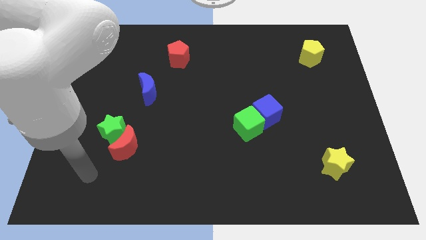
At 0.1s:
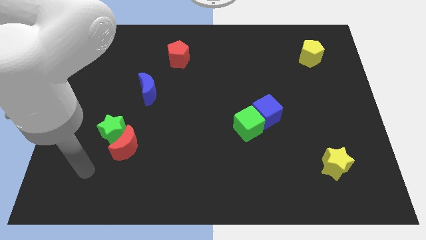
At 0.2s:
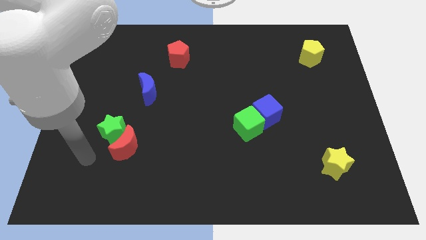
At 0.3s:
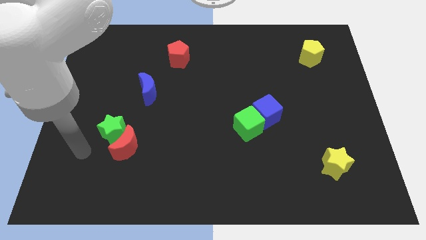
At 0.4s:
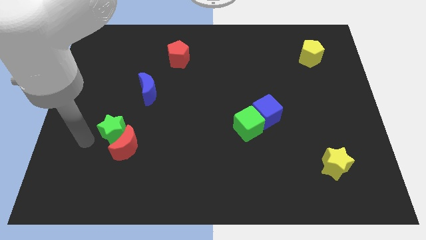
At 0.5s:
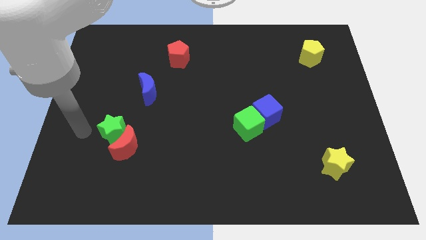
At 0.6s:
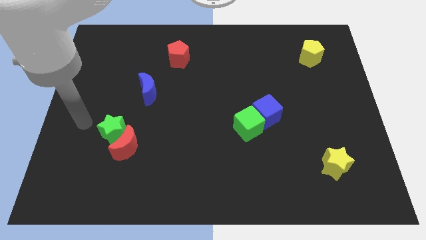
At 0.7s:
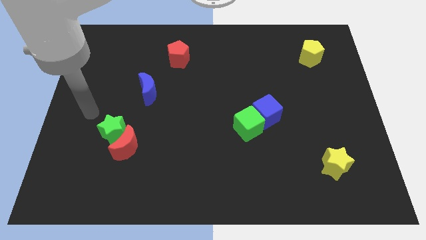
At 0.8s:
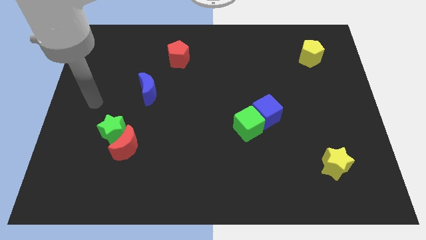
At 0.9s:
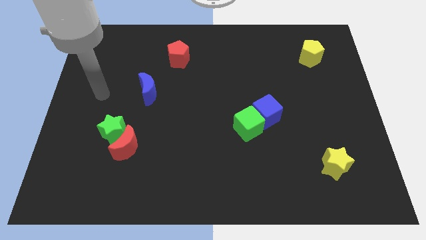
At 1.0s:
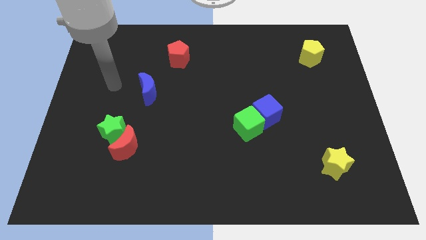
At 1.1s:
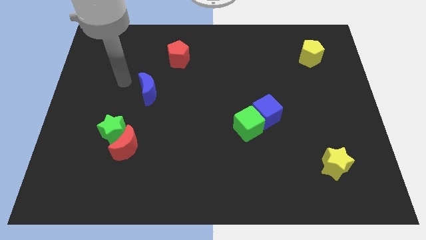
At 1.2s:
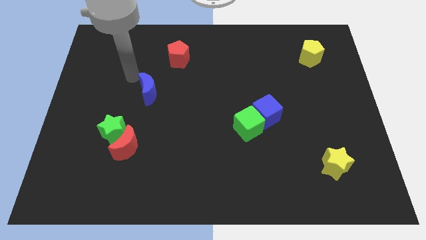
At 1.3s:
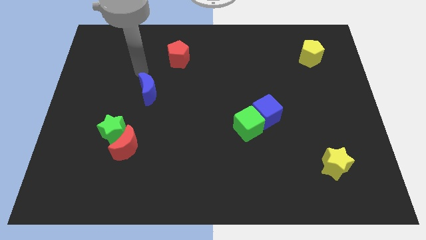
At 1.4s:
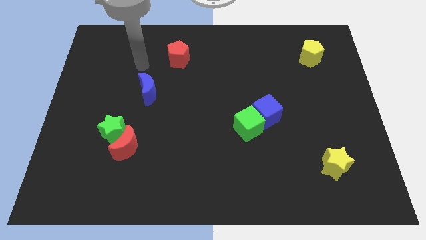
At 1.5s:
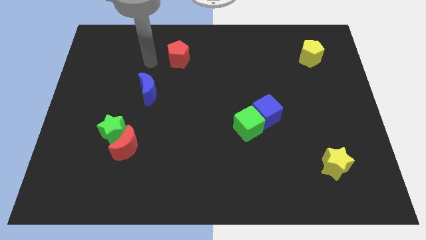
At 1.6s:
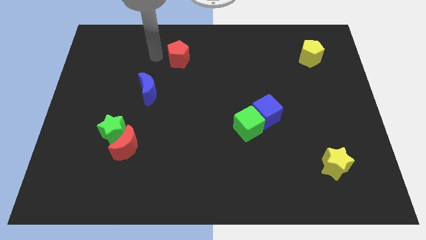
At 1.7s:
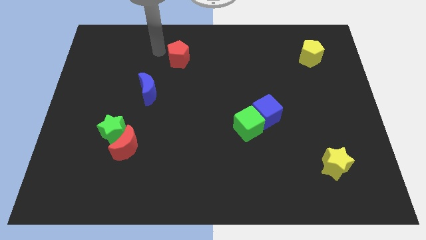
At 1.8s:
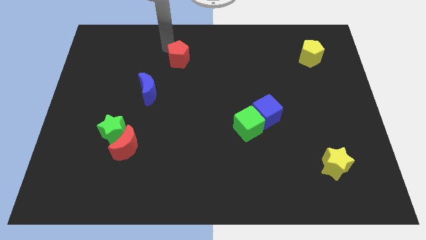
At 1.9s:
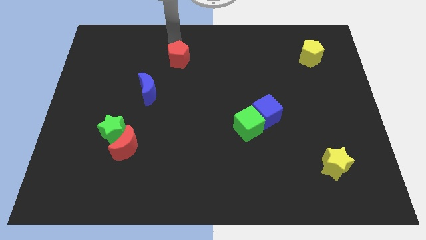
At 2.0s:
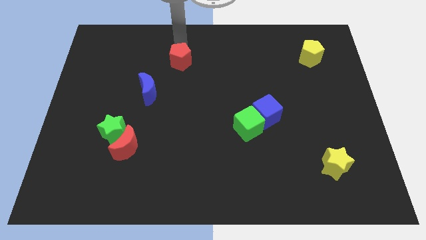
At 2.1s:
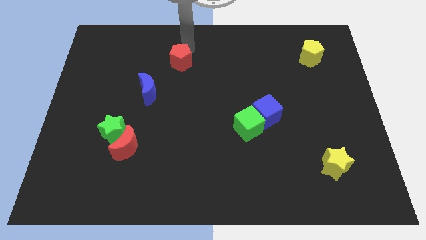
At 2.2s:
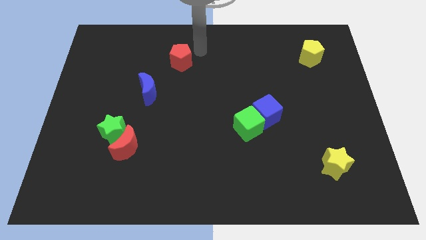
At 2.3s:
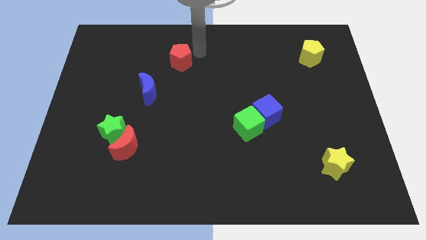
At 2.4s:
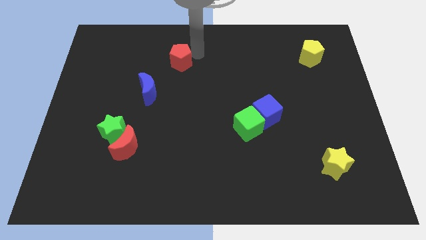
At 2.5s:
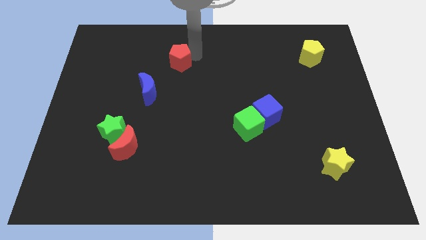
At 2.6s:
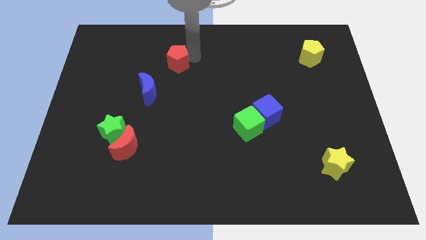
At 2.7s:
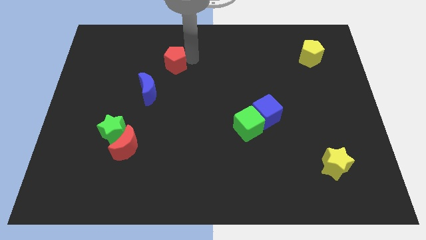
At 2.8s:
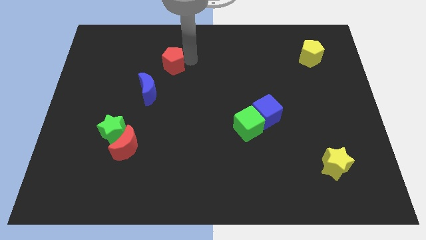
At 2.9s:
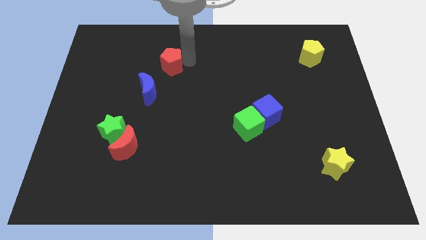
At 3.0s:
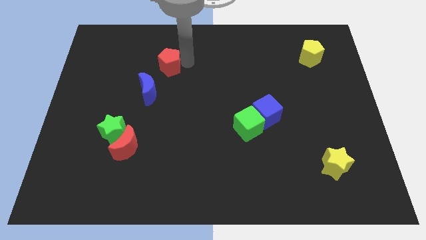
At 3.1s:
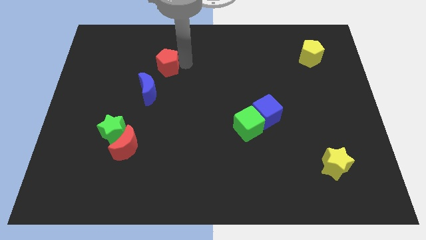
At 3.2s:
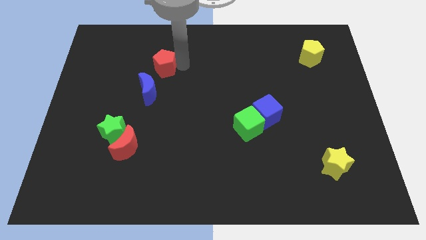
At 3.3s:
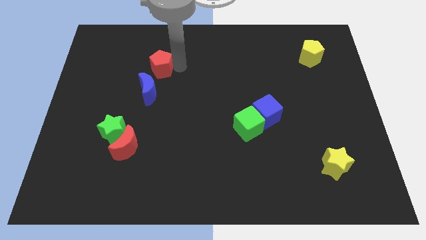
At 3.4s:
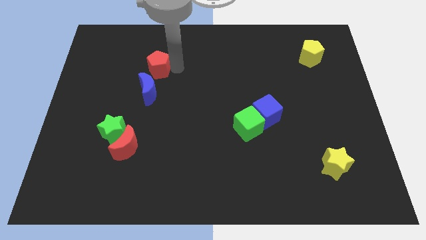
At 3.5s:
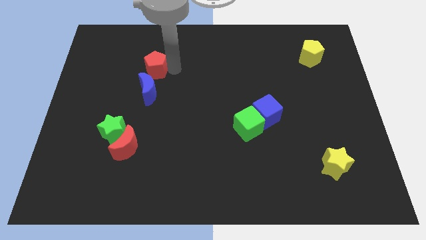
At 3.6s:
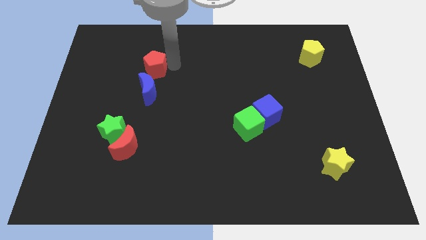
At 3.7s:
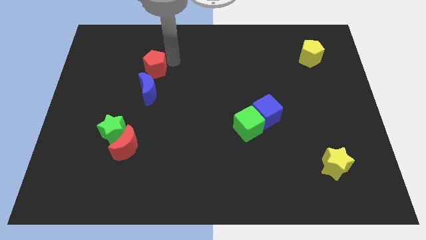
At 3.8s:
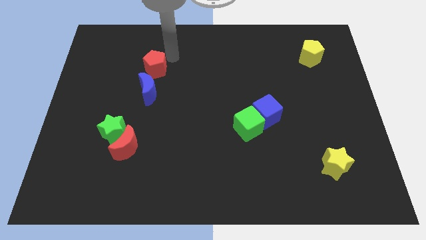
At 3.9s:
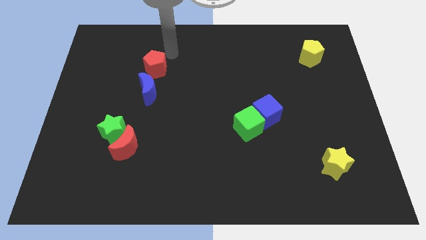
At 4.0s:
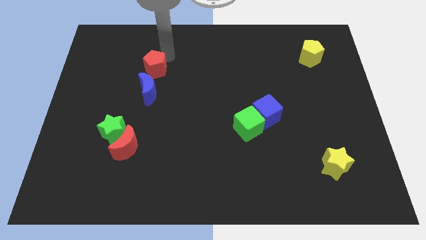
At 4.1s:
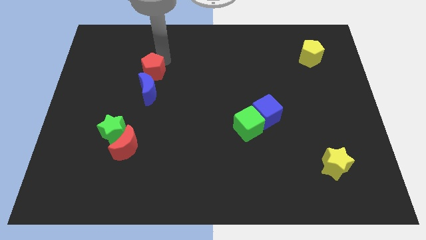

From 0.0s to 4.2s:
slightly push the red pentagon diagonally downwards and left

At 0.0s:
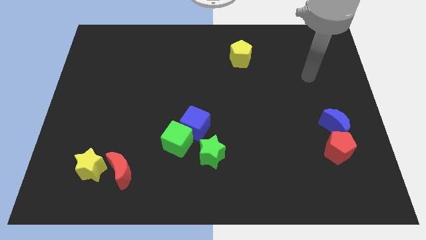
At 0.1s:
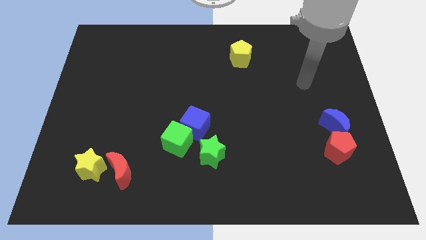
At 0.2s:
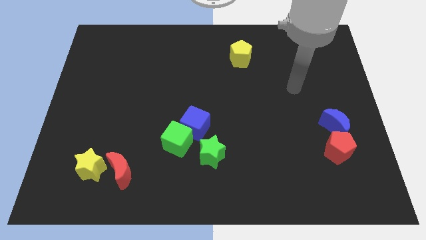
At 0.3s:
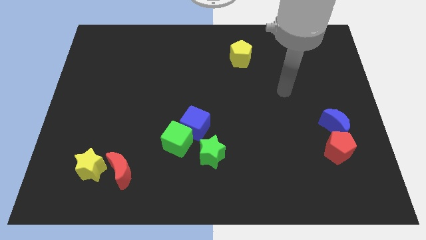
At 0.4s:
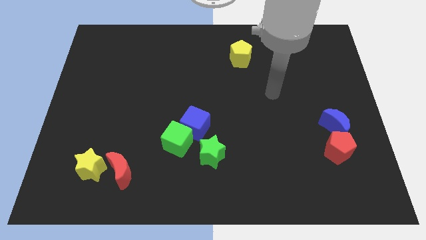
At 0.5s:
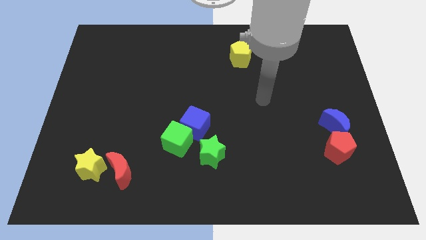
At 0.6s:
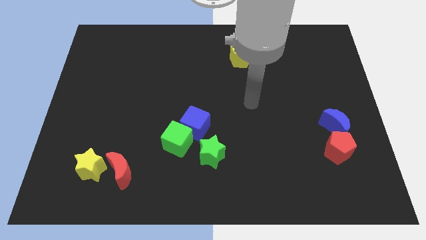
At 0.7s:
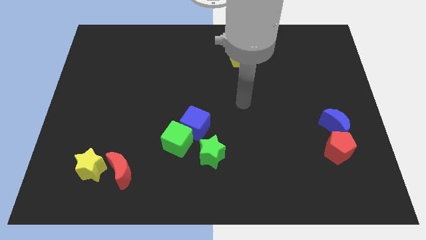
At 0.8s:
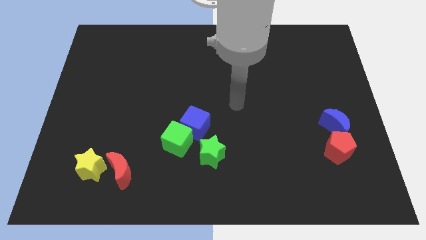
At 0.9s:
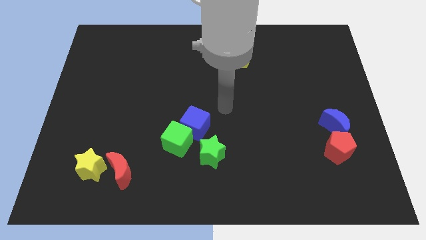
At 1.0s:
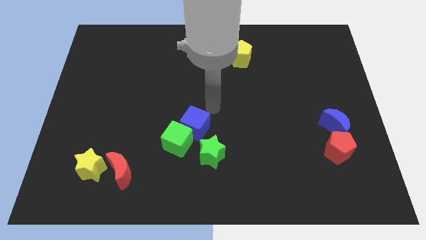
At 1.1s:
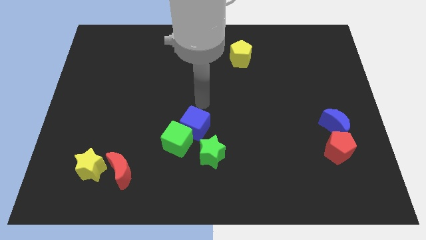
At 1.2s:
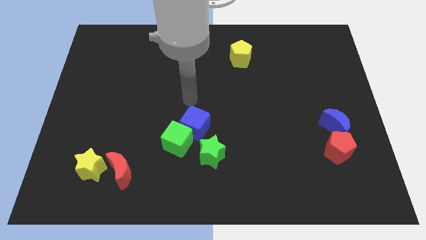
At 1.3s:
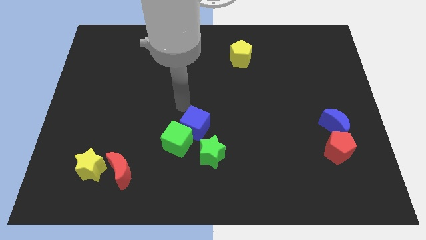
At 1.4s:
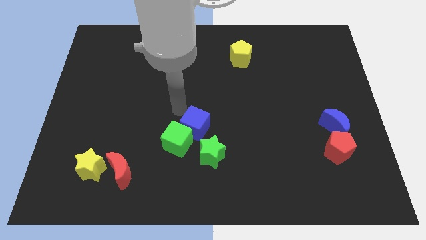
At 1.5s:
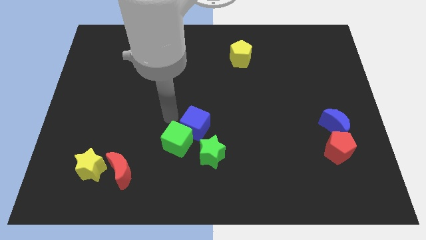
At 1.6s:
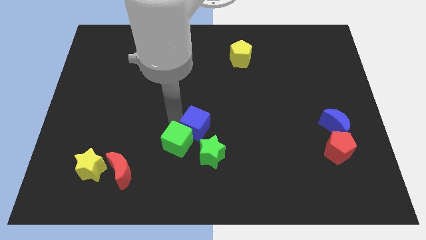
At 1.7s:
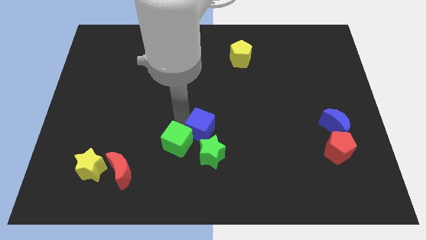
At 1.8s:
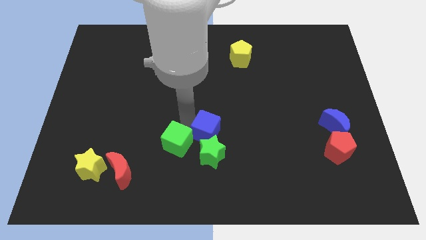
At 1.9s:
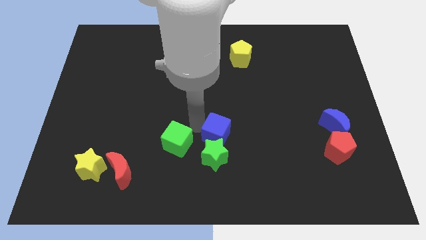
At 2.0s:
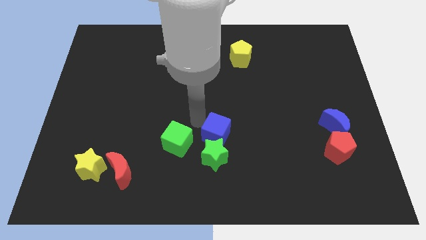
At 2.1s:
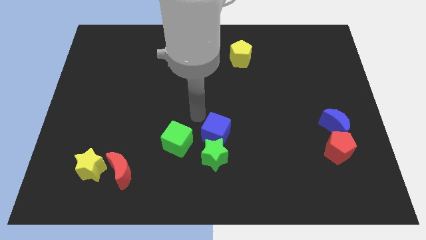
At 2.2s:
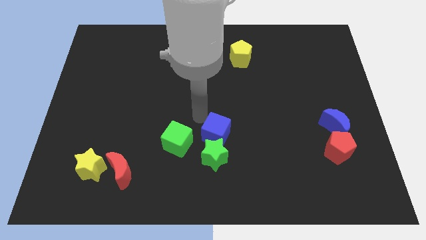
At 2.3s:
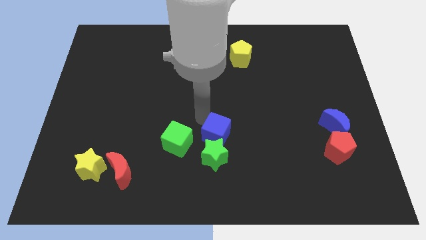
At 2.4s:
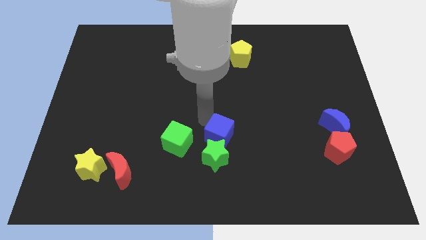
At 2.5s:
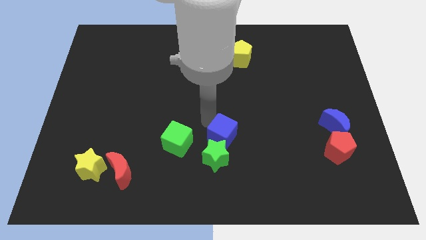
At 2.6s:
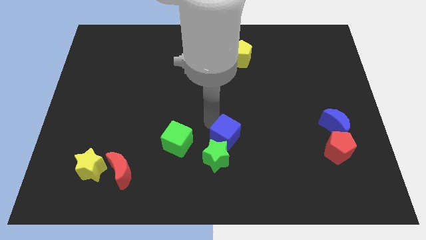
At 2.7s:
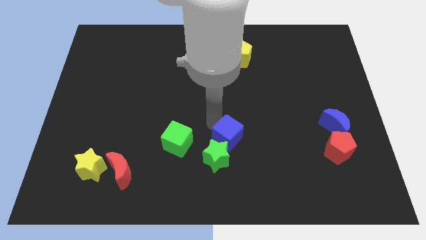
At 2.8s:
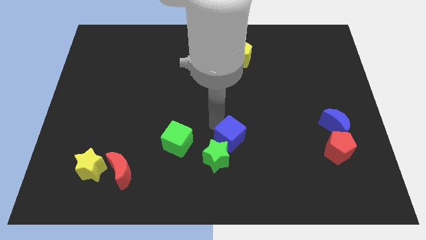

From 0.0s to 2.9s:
slightly slide the blue cube downwards and to the right diagonally

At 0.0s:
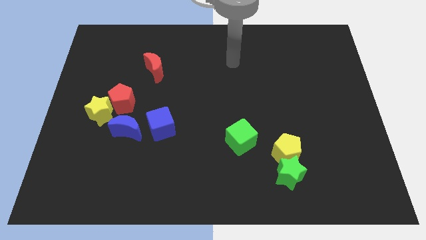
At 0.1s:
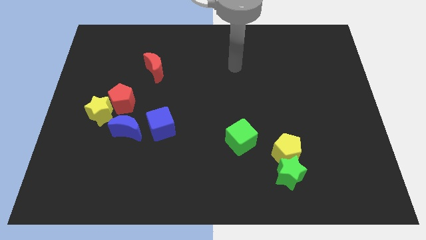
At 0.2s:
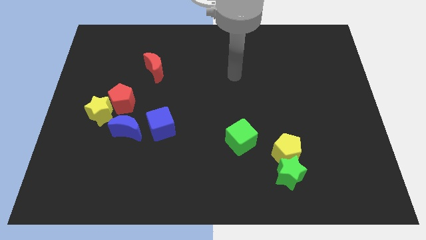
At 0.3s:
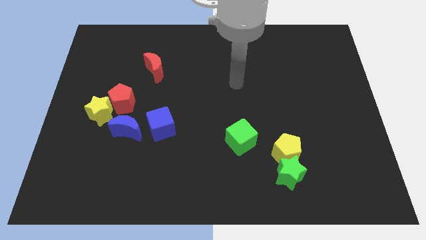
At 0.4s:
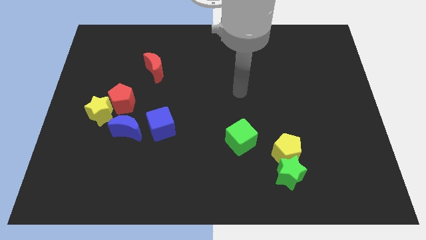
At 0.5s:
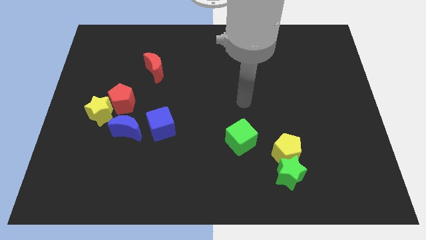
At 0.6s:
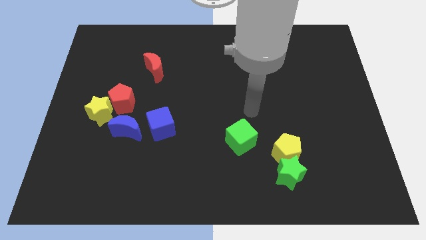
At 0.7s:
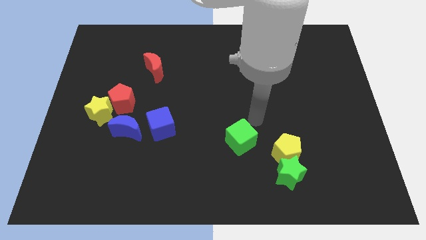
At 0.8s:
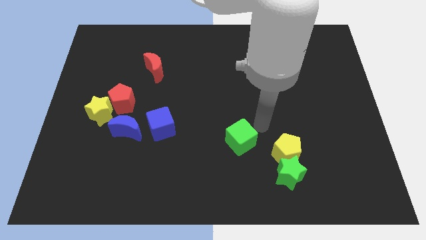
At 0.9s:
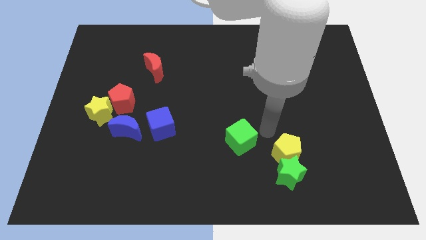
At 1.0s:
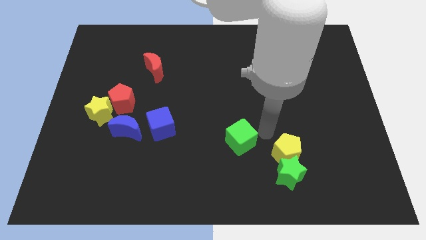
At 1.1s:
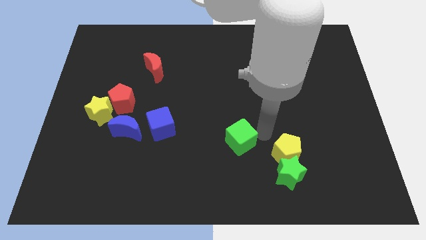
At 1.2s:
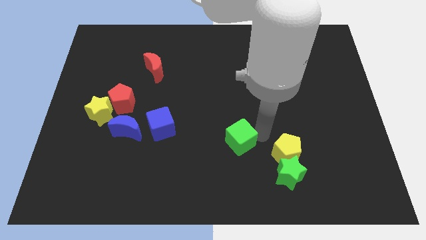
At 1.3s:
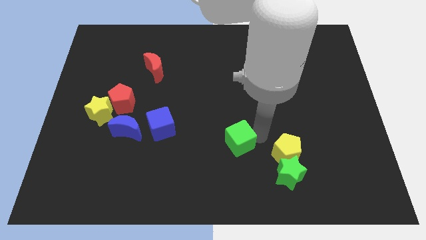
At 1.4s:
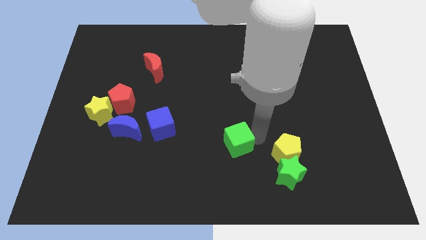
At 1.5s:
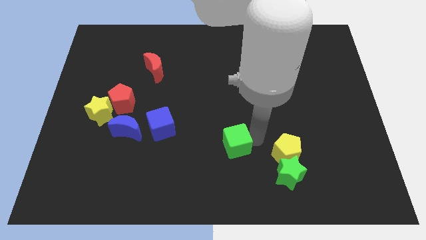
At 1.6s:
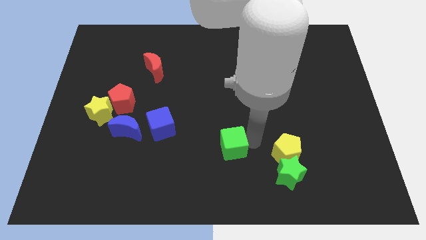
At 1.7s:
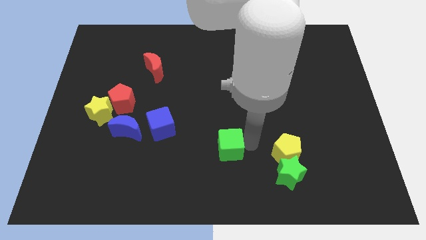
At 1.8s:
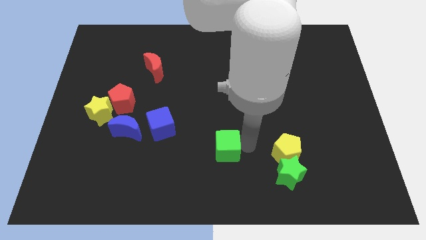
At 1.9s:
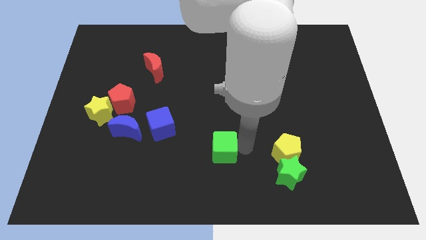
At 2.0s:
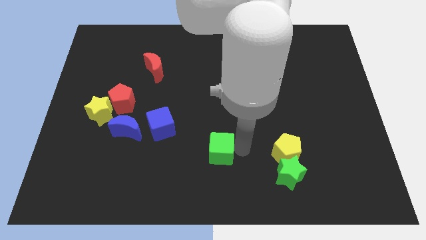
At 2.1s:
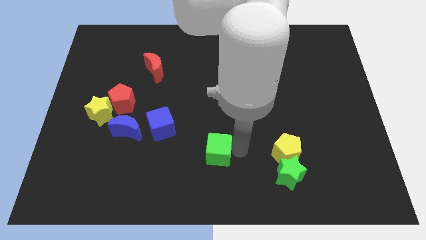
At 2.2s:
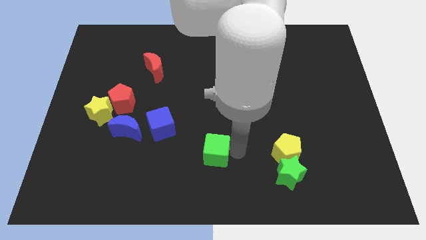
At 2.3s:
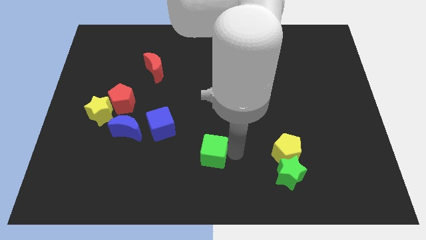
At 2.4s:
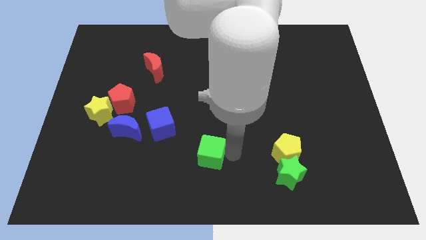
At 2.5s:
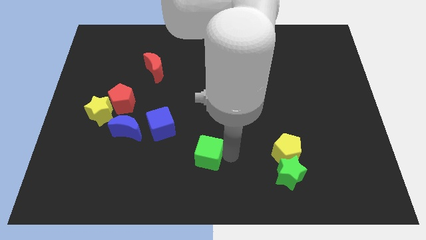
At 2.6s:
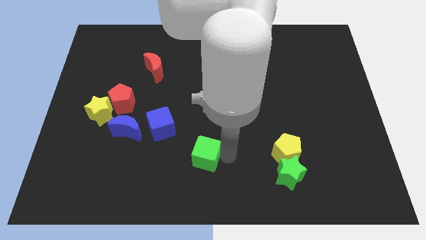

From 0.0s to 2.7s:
slide the green cube to the left slightly
